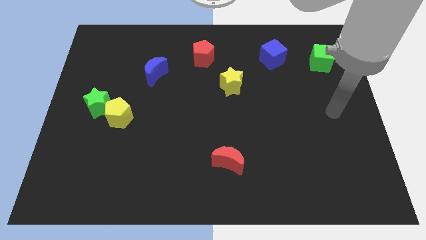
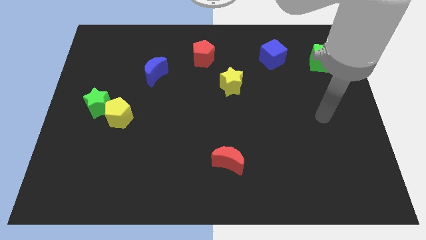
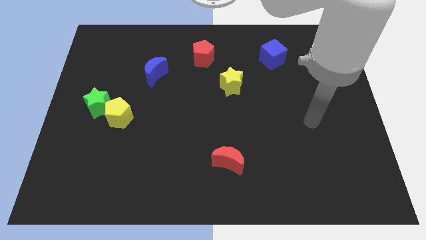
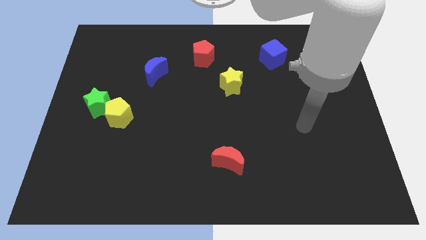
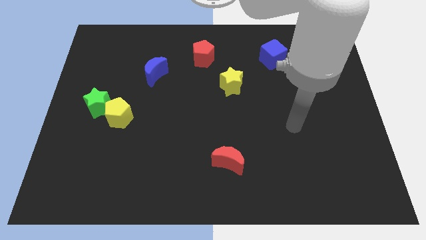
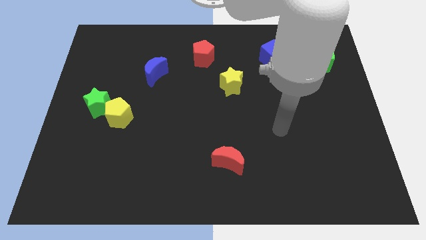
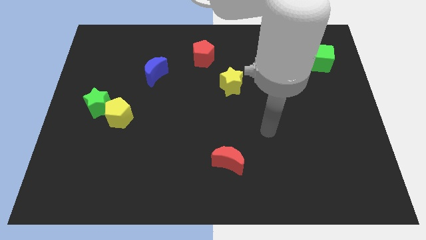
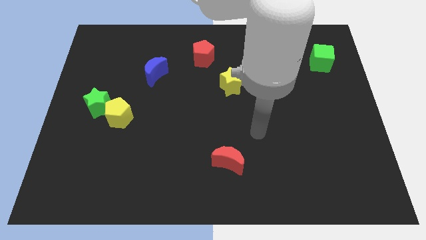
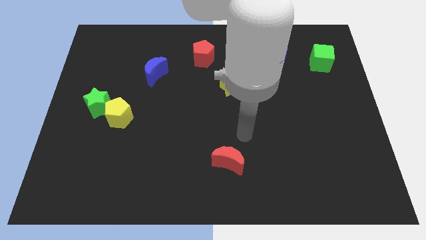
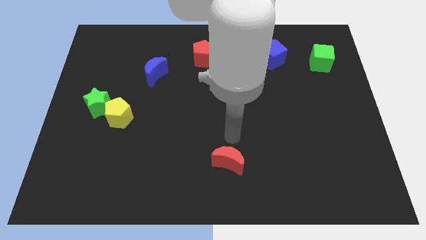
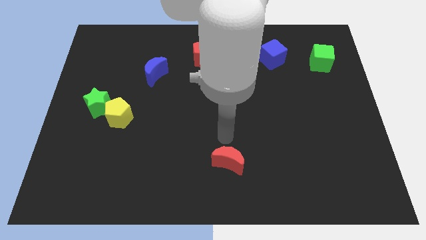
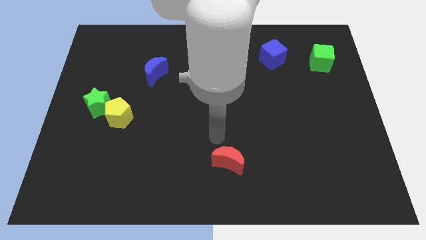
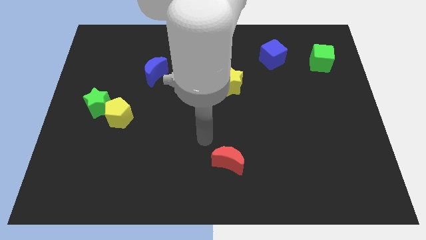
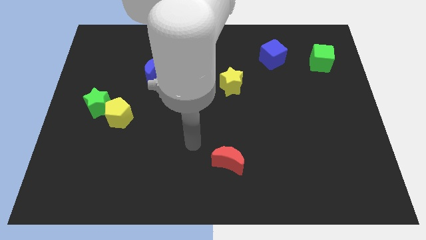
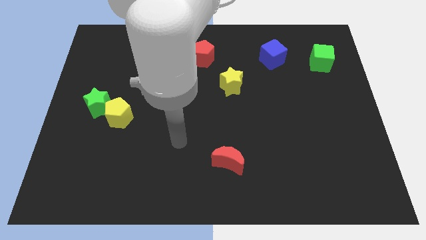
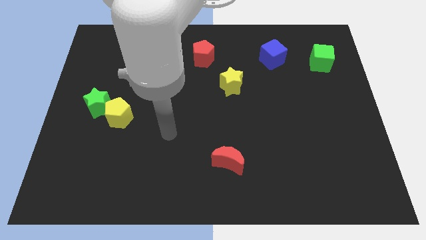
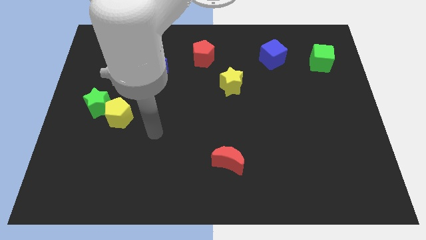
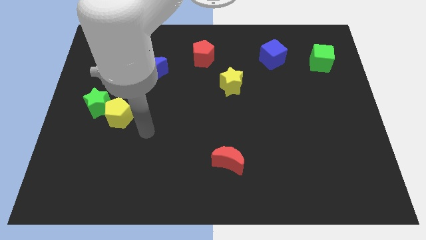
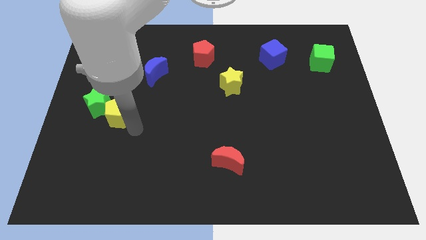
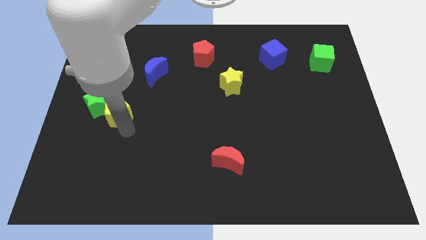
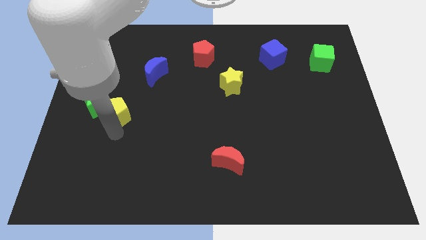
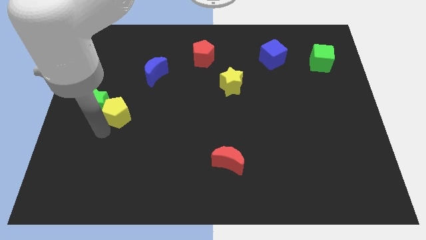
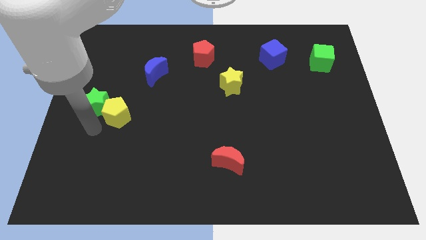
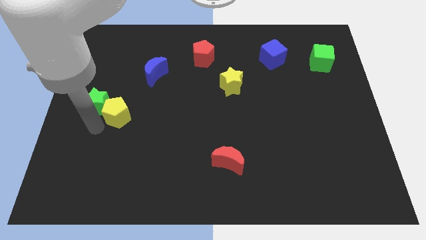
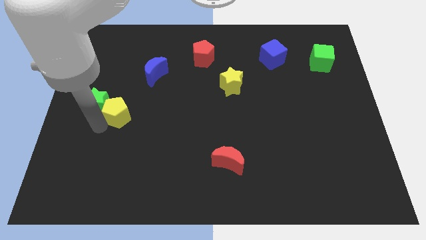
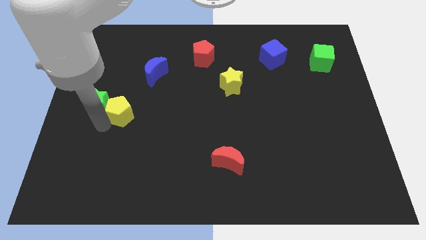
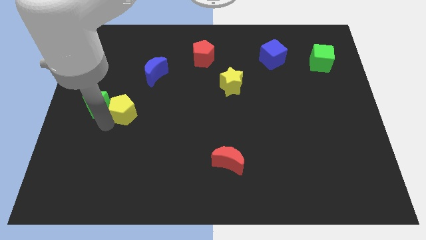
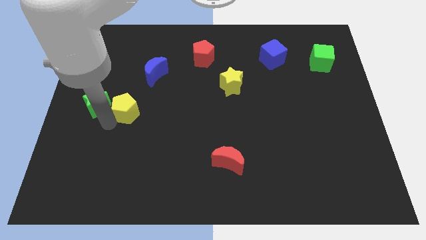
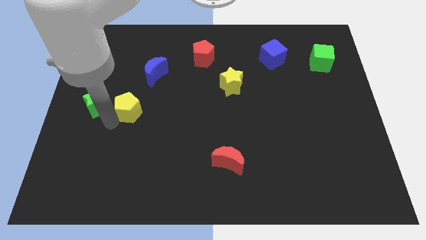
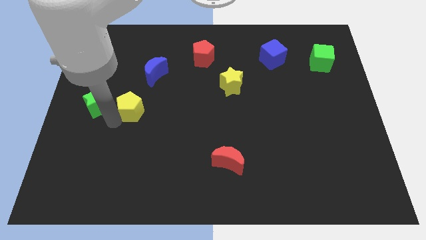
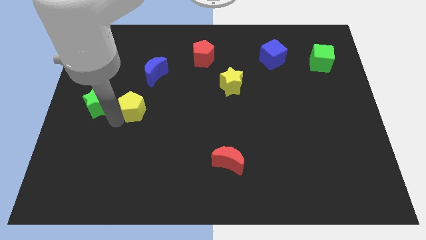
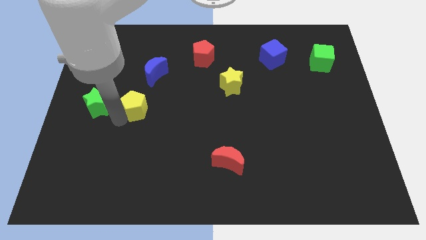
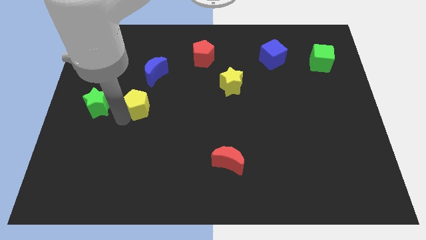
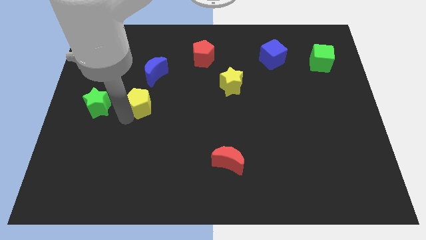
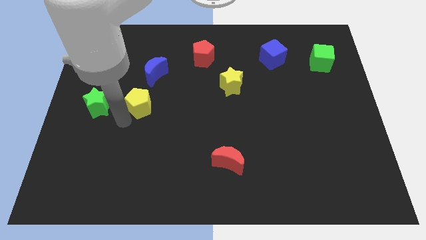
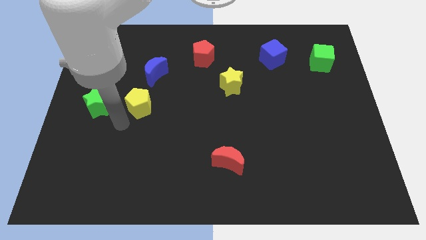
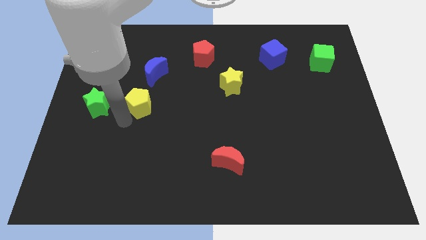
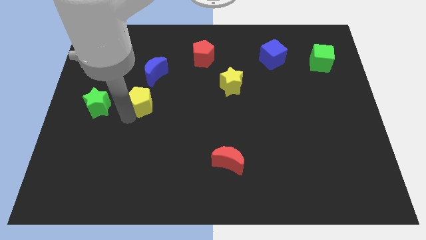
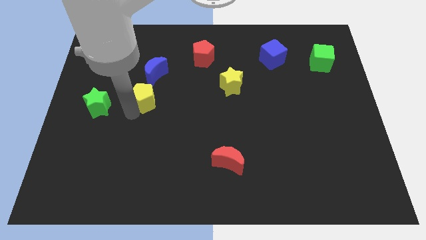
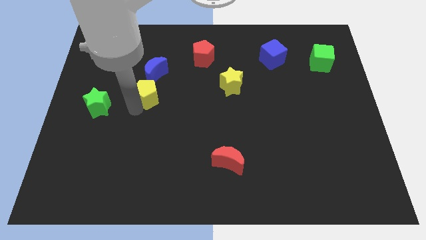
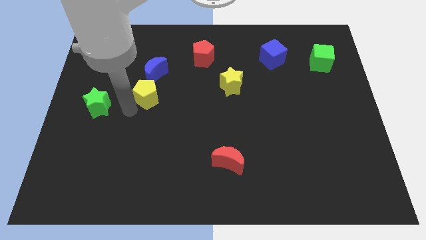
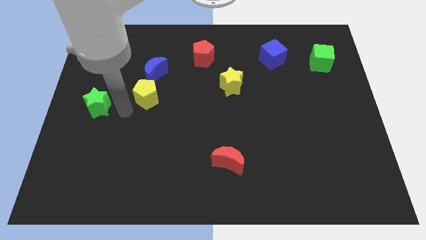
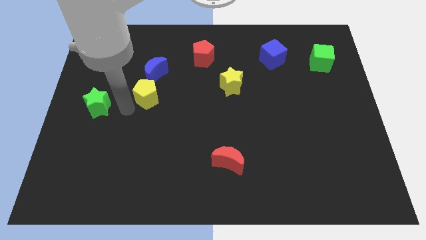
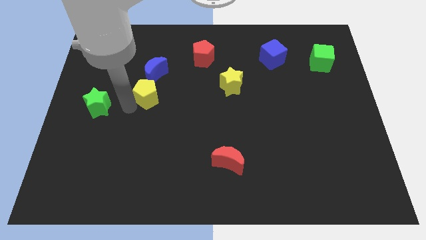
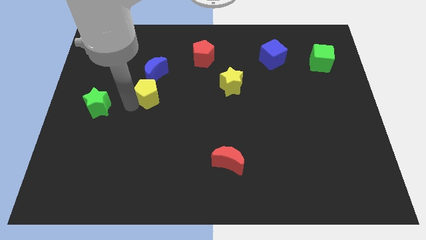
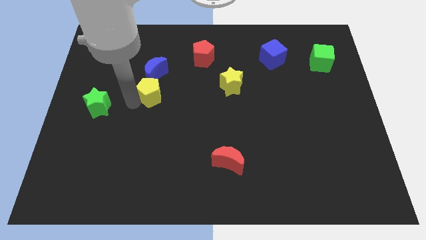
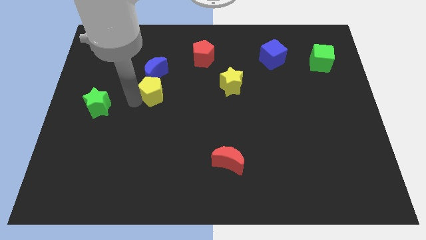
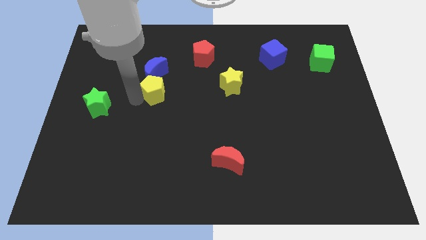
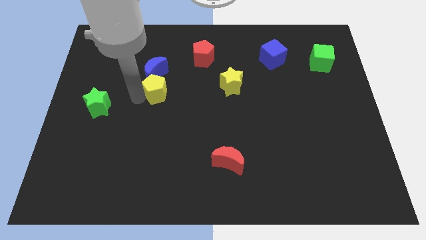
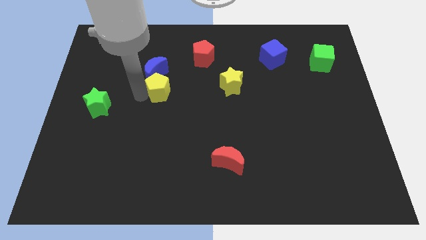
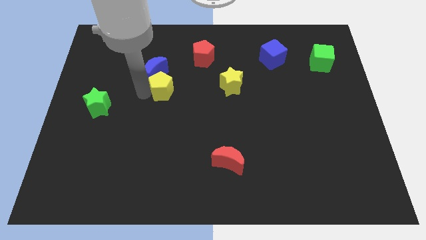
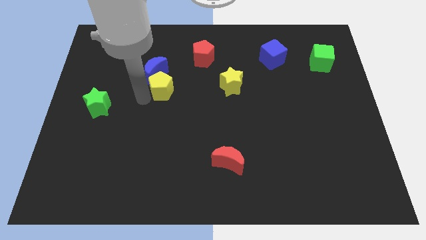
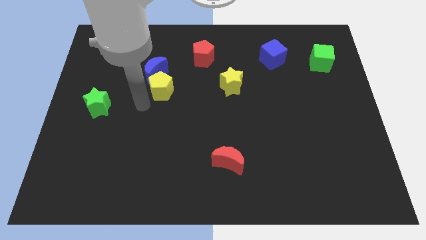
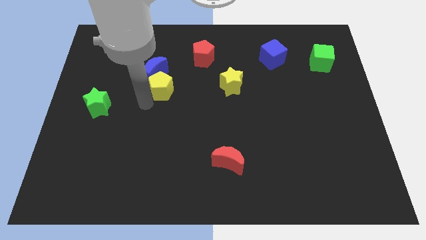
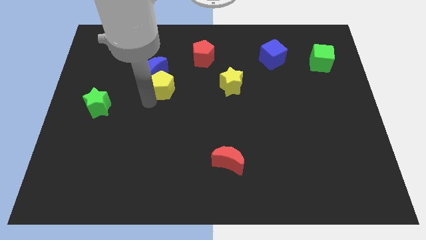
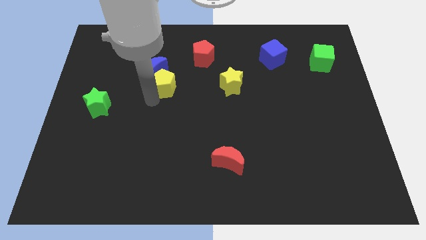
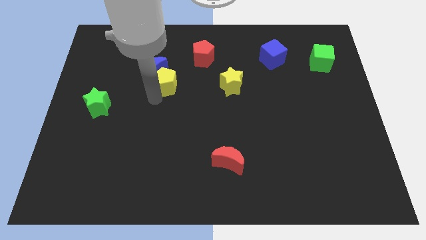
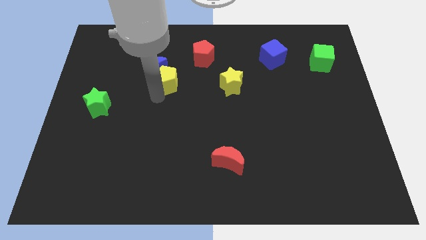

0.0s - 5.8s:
push the yellow pentagon diagonally down and to the left of the red pentagon
